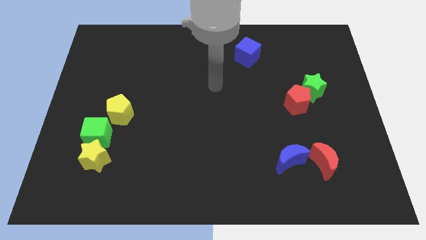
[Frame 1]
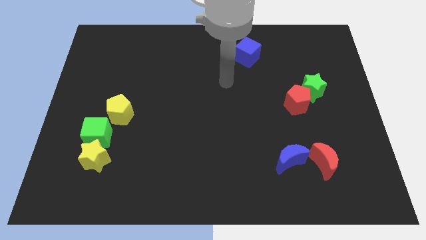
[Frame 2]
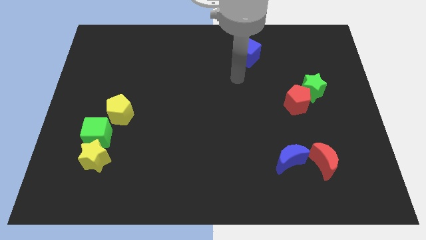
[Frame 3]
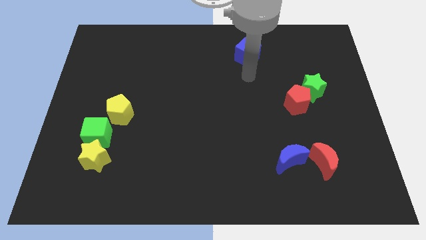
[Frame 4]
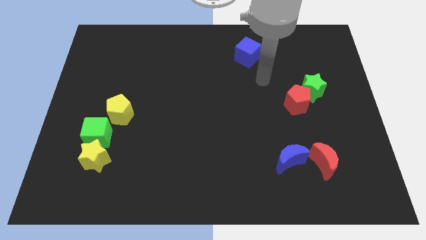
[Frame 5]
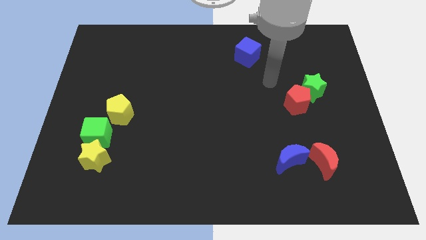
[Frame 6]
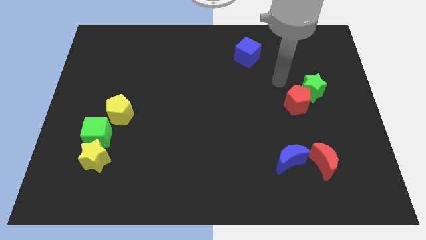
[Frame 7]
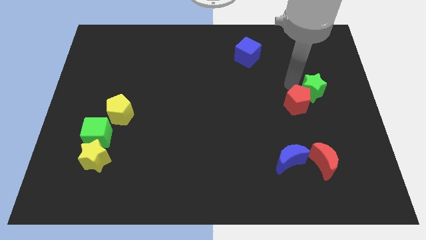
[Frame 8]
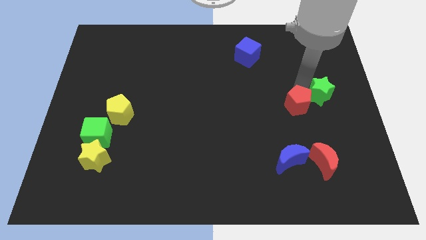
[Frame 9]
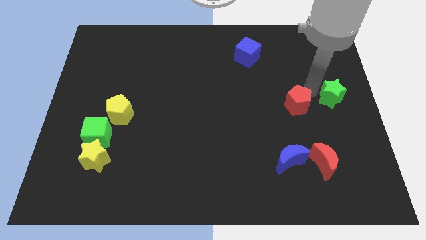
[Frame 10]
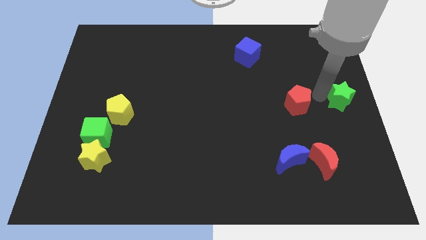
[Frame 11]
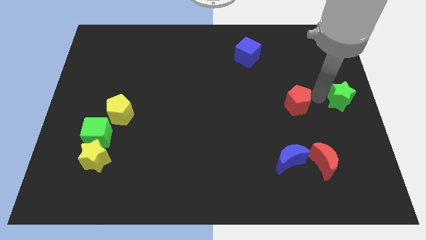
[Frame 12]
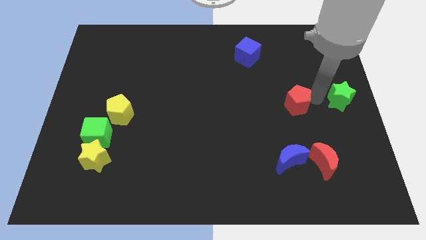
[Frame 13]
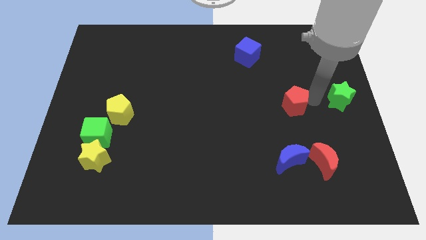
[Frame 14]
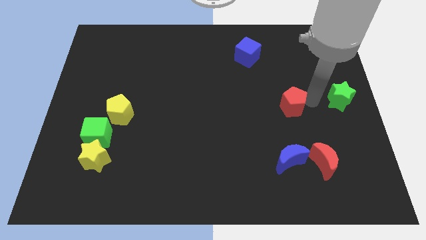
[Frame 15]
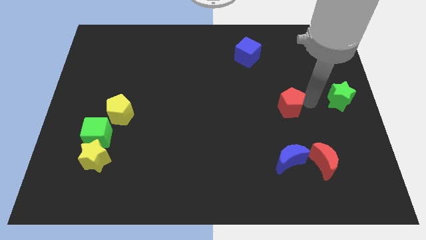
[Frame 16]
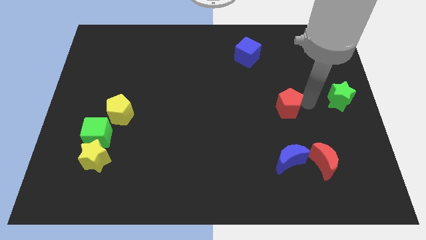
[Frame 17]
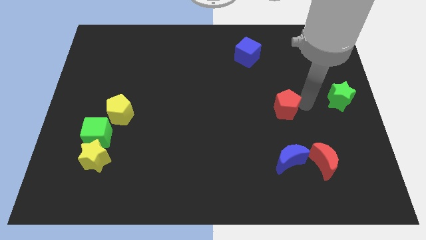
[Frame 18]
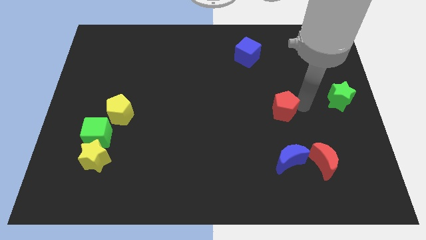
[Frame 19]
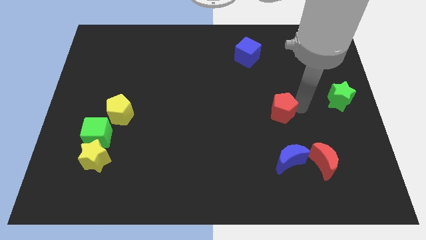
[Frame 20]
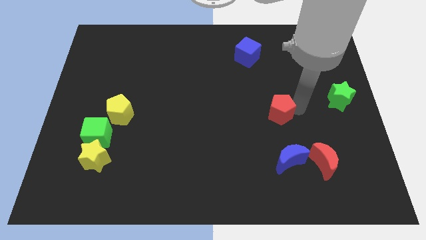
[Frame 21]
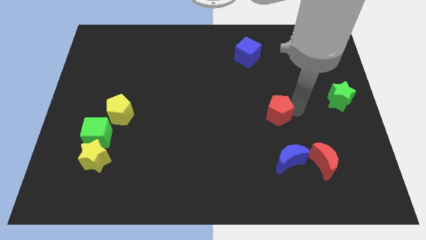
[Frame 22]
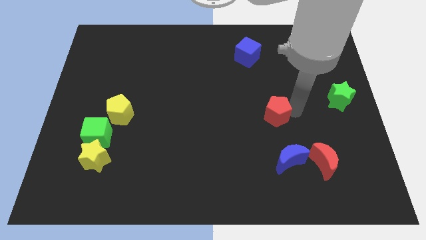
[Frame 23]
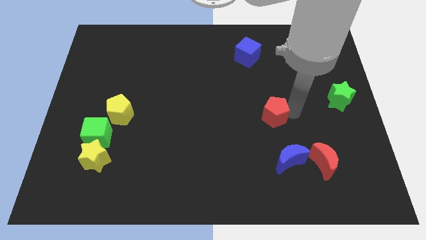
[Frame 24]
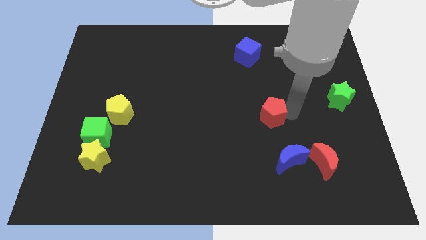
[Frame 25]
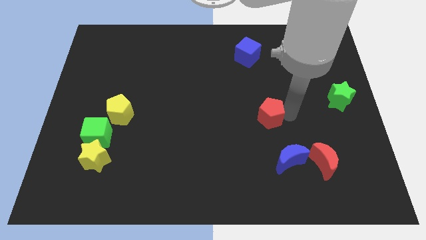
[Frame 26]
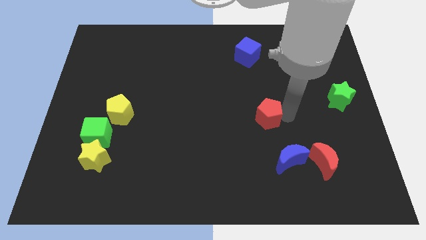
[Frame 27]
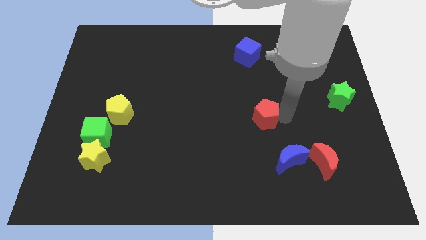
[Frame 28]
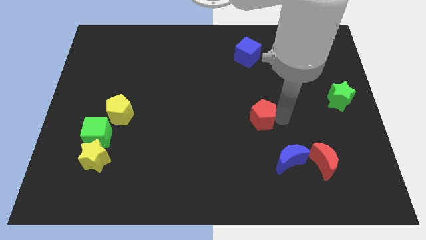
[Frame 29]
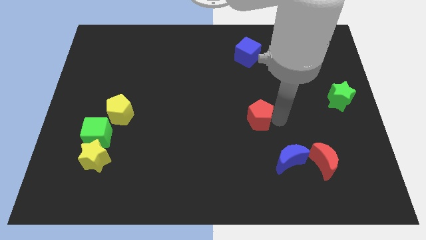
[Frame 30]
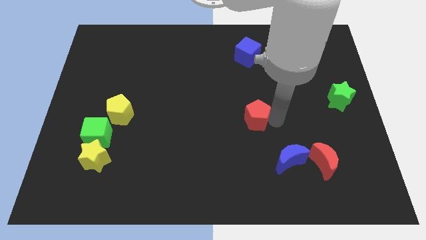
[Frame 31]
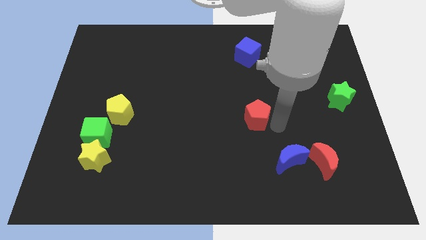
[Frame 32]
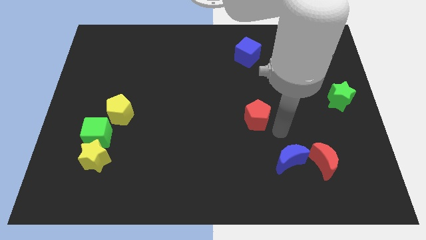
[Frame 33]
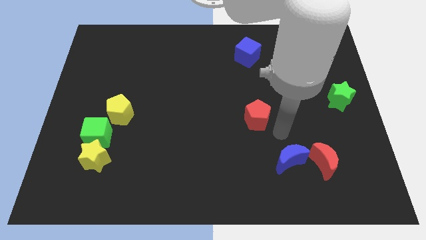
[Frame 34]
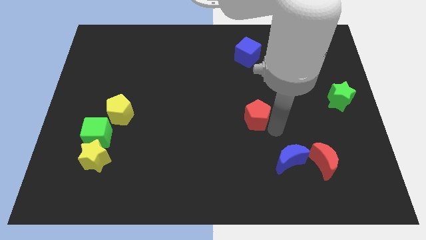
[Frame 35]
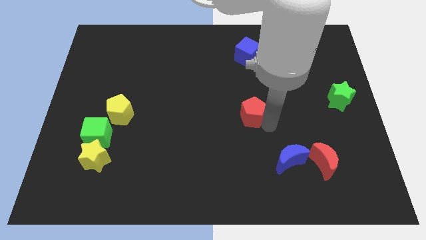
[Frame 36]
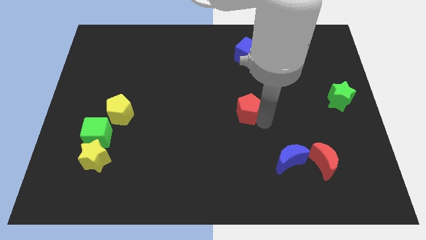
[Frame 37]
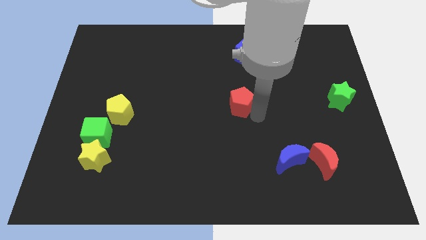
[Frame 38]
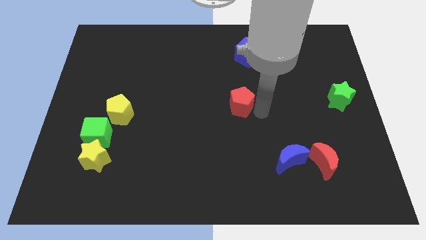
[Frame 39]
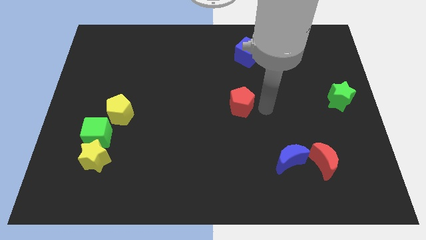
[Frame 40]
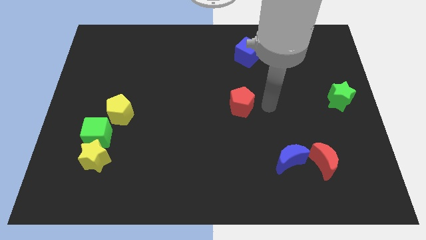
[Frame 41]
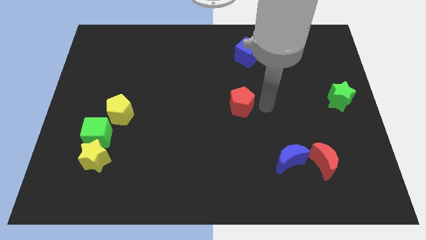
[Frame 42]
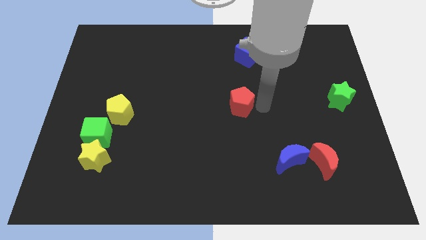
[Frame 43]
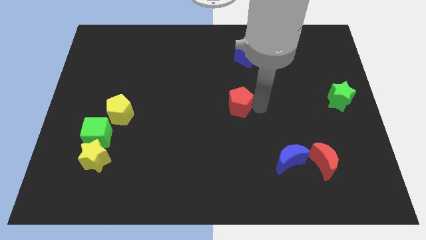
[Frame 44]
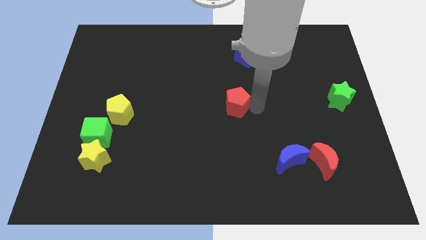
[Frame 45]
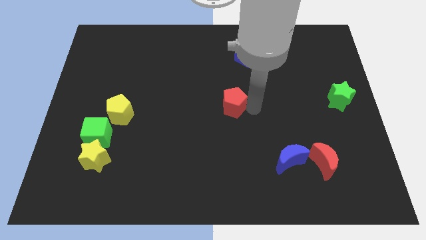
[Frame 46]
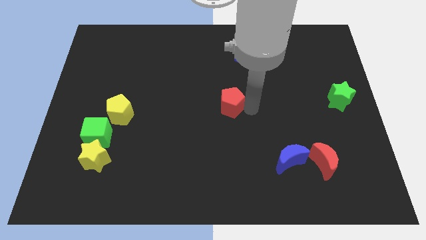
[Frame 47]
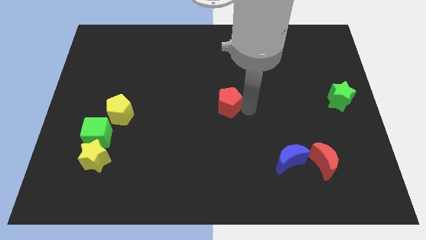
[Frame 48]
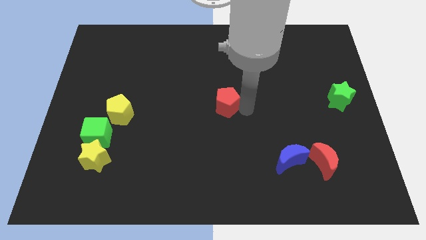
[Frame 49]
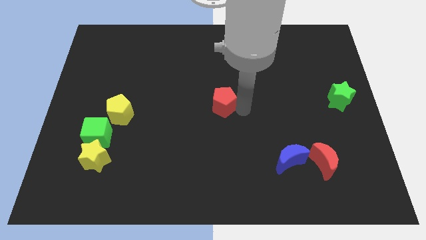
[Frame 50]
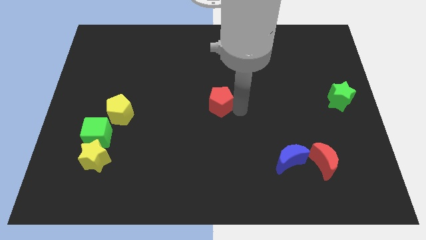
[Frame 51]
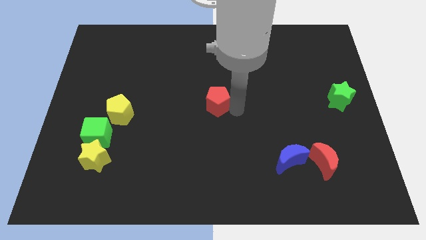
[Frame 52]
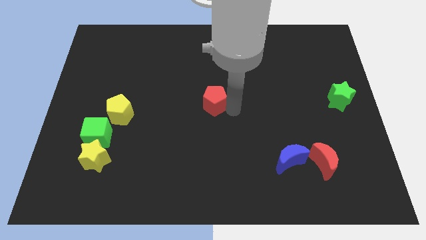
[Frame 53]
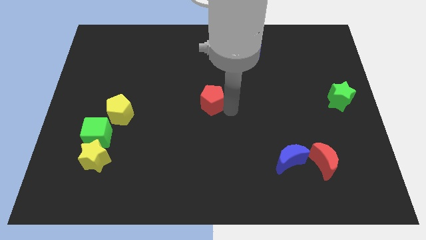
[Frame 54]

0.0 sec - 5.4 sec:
slide the red pentagon to the left

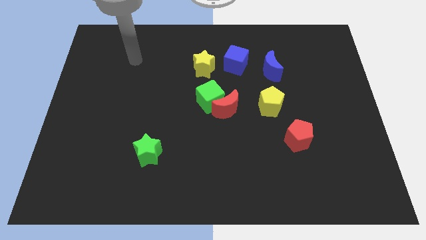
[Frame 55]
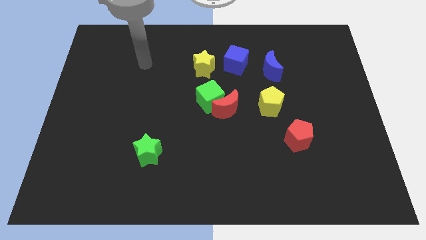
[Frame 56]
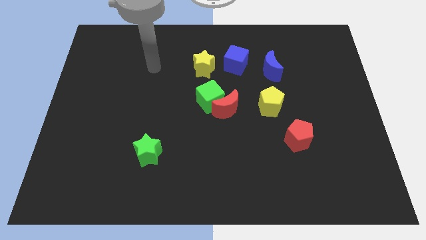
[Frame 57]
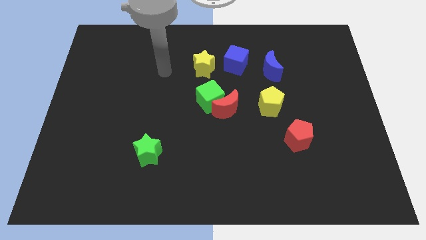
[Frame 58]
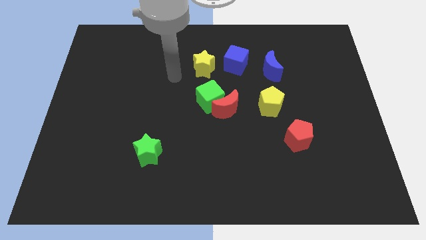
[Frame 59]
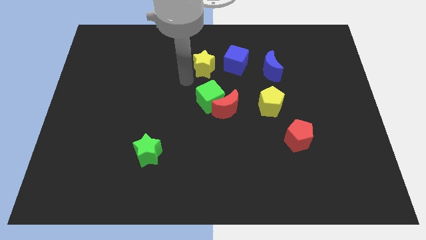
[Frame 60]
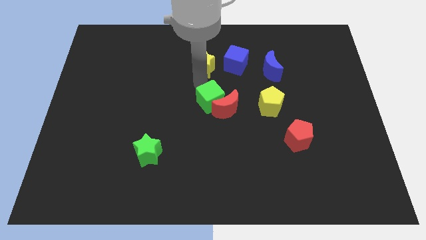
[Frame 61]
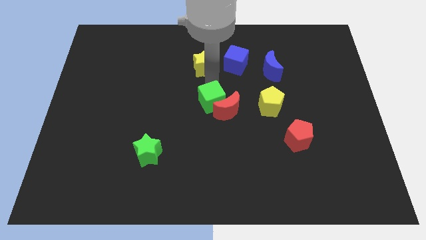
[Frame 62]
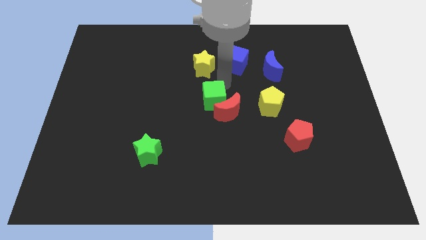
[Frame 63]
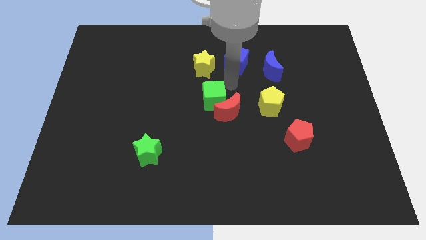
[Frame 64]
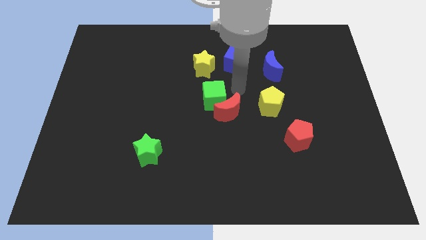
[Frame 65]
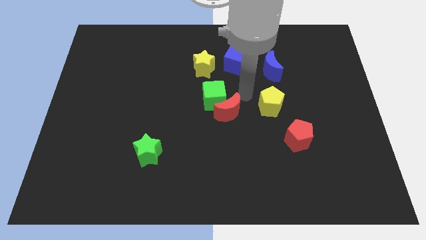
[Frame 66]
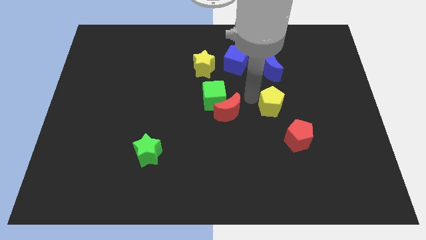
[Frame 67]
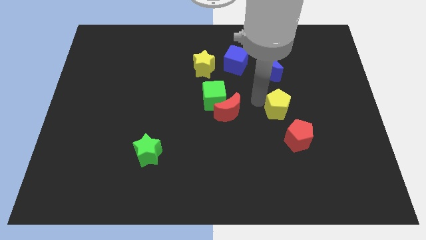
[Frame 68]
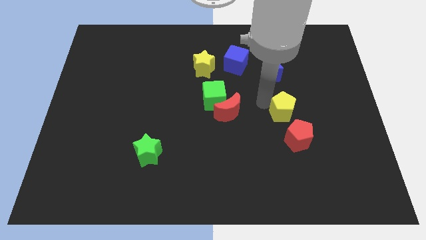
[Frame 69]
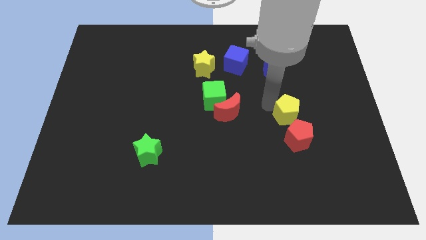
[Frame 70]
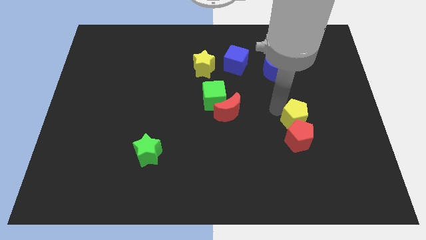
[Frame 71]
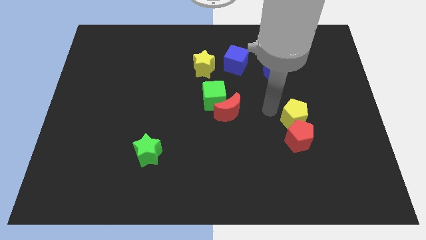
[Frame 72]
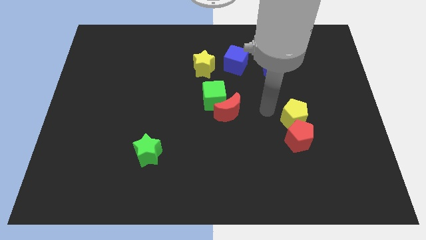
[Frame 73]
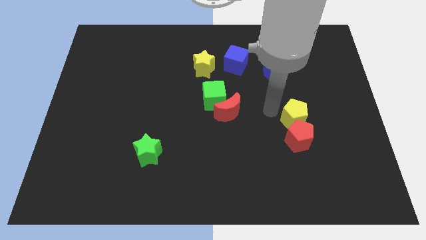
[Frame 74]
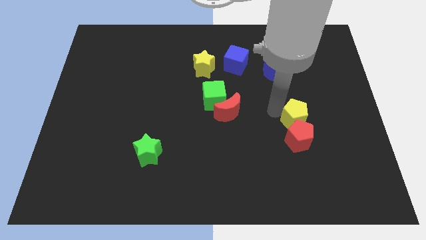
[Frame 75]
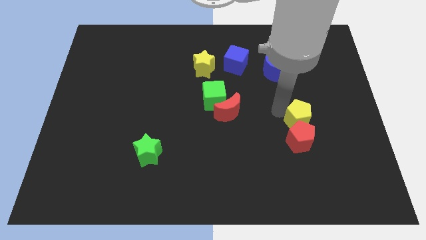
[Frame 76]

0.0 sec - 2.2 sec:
slightly slide the yellow pentagon down and then to the right

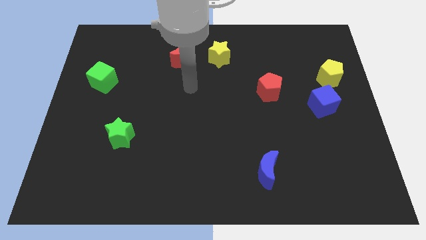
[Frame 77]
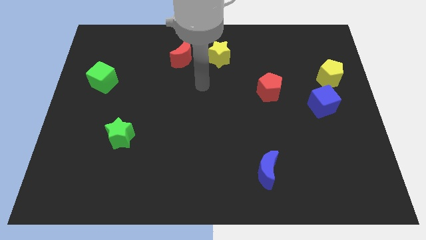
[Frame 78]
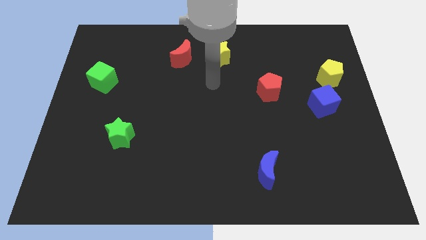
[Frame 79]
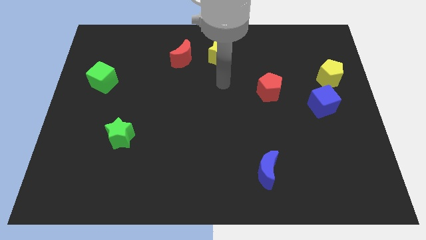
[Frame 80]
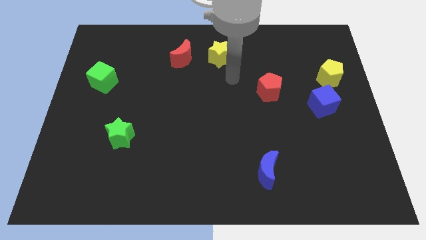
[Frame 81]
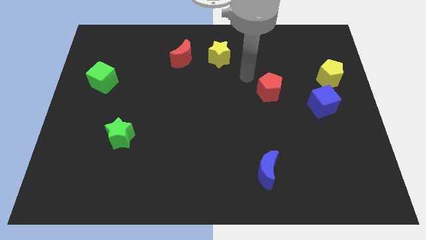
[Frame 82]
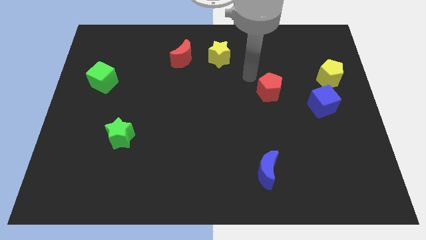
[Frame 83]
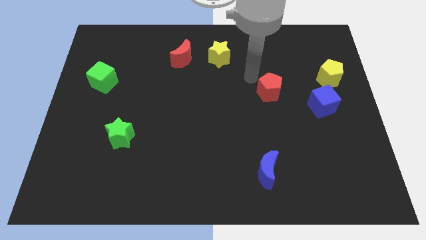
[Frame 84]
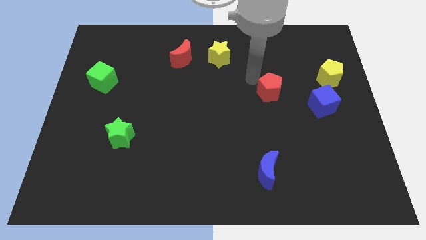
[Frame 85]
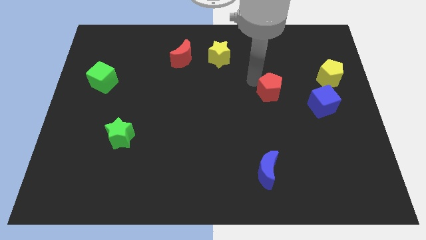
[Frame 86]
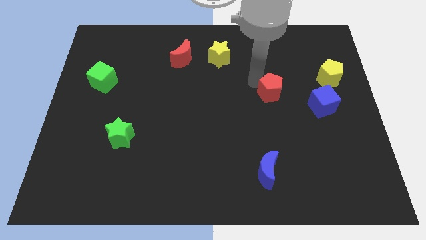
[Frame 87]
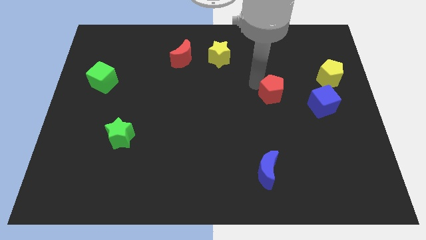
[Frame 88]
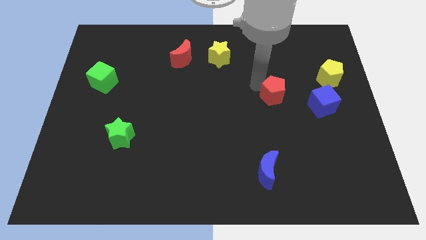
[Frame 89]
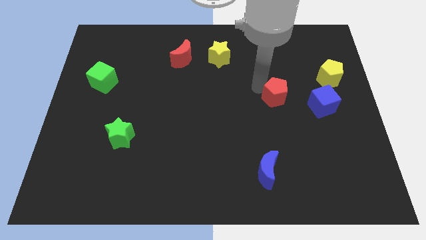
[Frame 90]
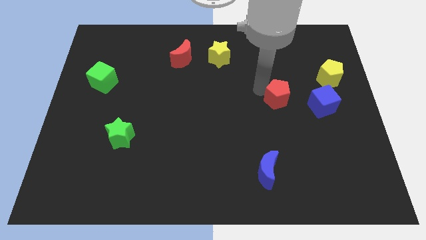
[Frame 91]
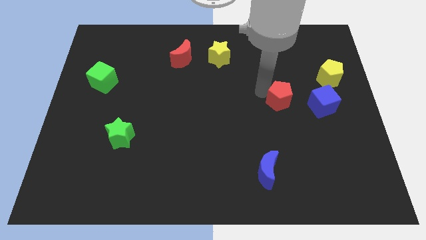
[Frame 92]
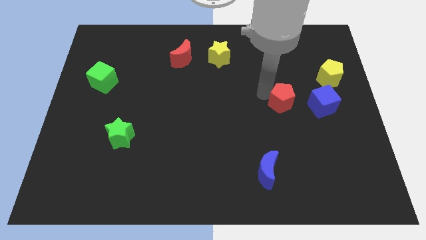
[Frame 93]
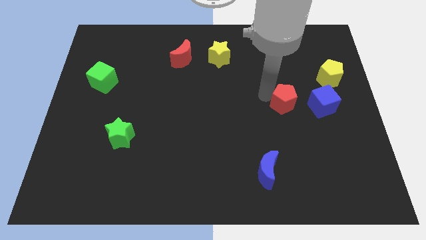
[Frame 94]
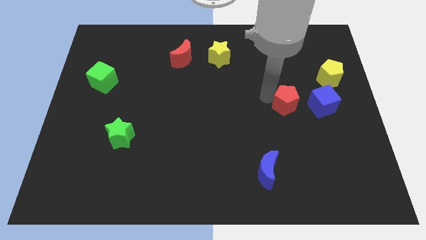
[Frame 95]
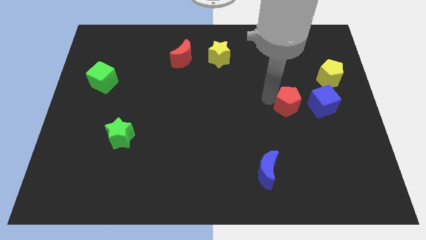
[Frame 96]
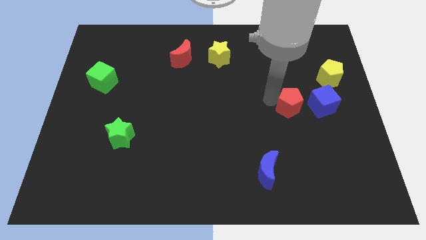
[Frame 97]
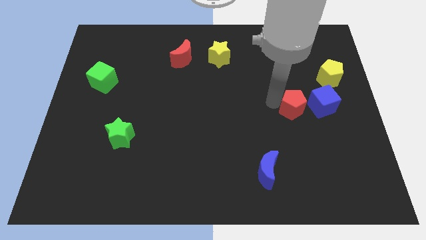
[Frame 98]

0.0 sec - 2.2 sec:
slightly slide the red pentagon diagonally downwards and right
